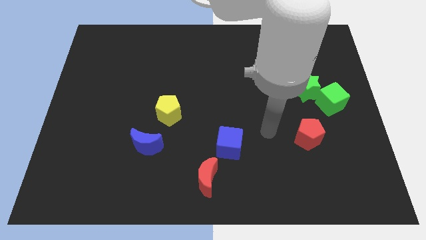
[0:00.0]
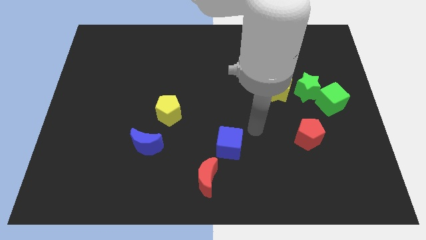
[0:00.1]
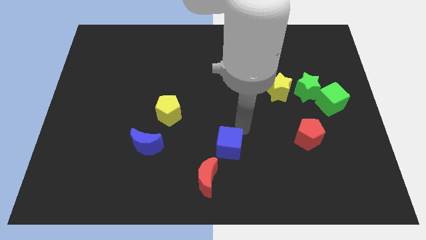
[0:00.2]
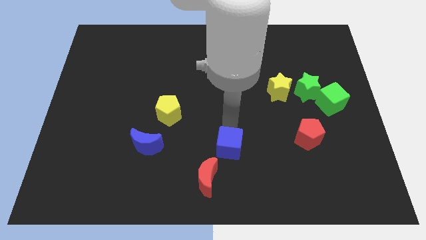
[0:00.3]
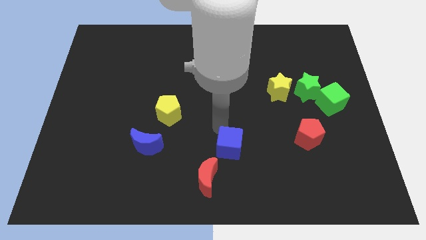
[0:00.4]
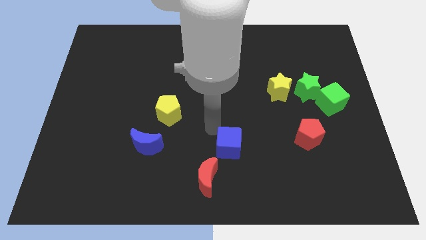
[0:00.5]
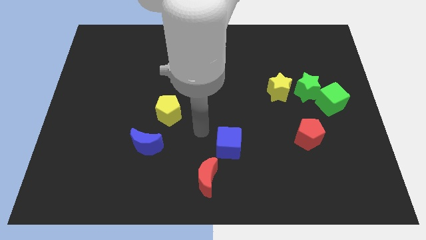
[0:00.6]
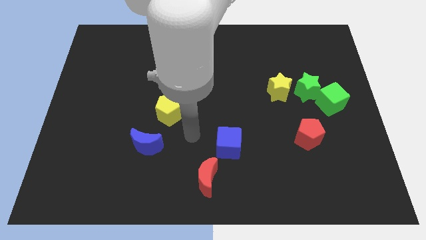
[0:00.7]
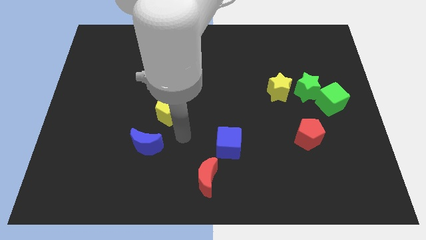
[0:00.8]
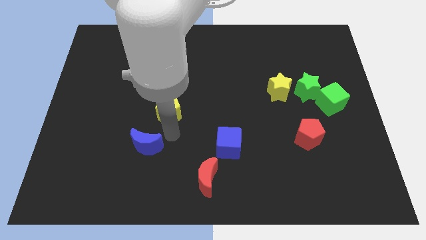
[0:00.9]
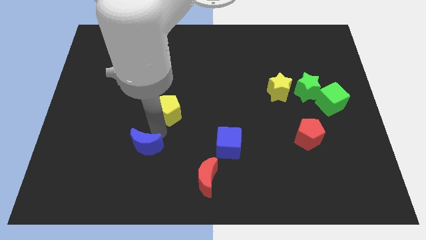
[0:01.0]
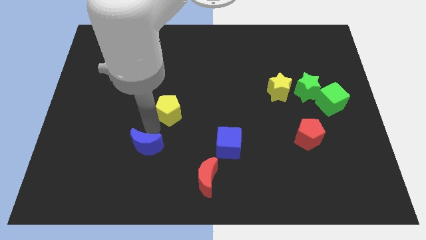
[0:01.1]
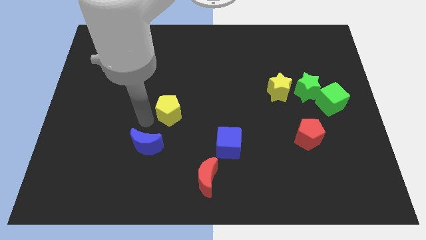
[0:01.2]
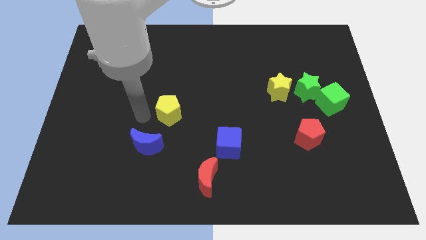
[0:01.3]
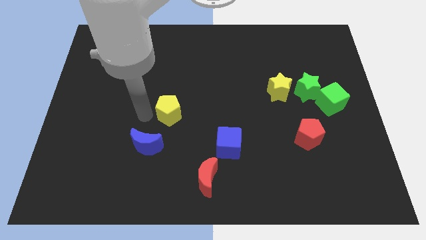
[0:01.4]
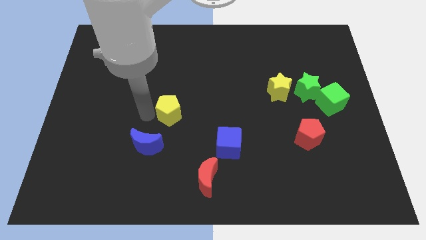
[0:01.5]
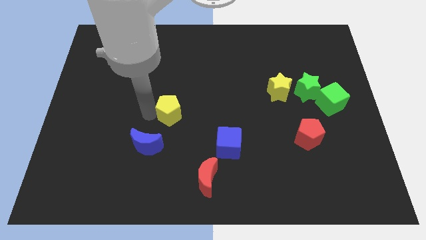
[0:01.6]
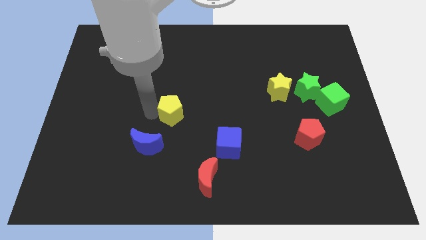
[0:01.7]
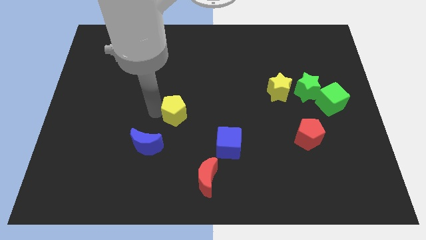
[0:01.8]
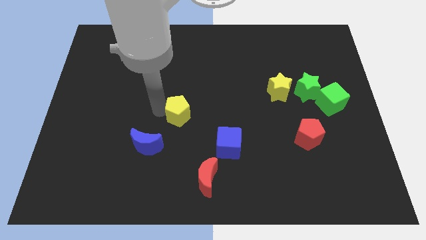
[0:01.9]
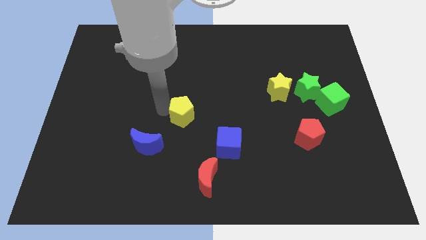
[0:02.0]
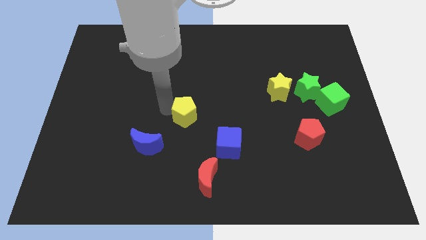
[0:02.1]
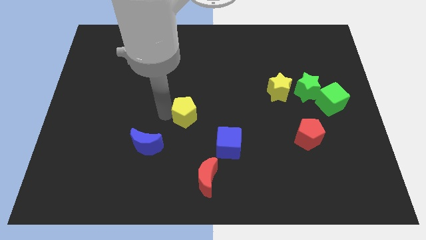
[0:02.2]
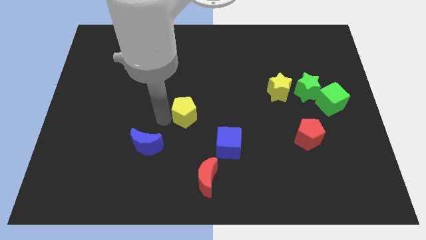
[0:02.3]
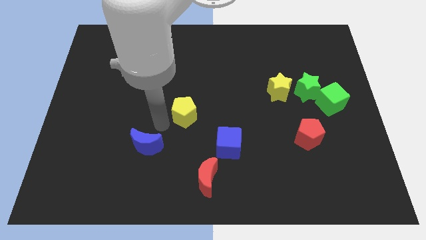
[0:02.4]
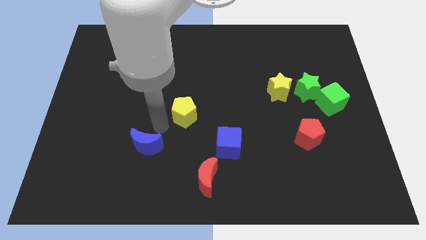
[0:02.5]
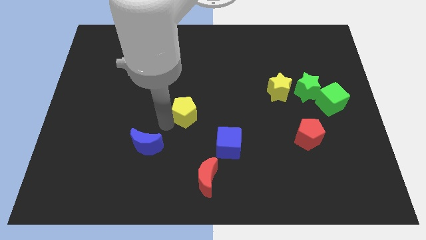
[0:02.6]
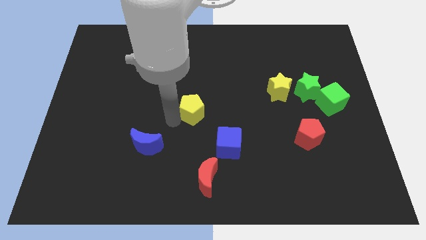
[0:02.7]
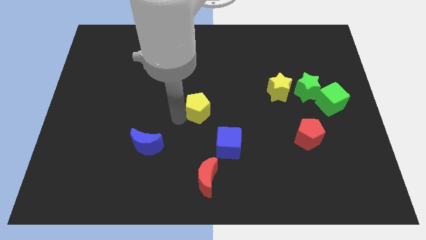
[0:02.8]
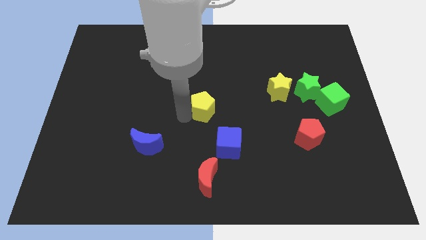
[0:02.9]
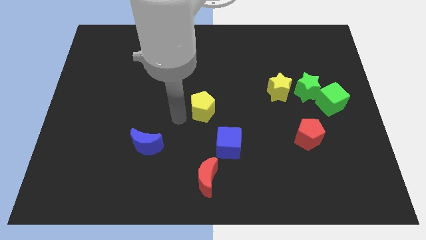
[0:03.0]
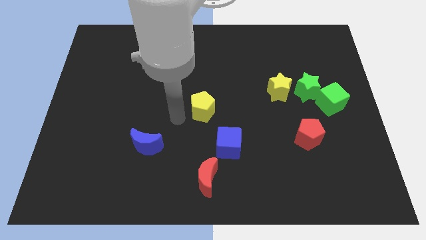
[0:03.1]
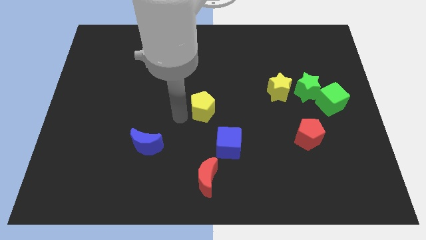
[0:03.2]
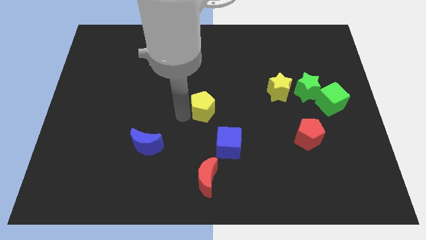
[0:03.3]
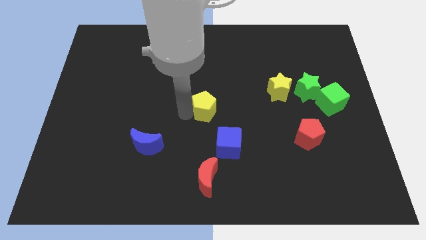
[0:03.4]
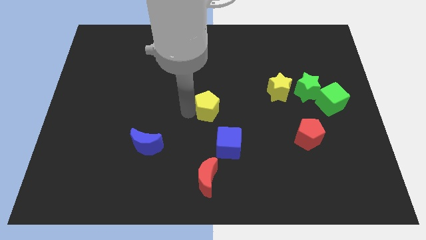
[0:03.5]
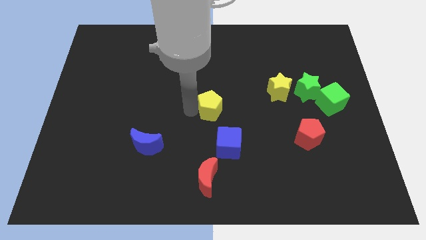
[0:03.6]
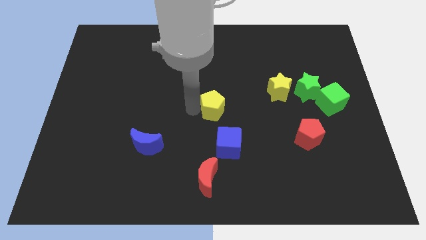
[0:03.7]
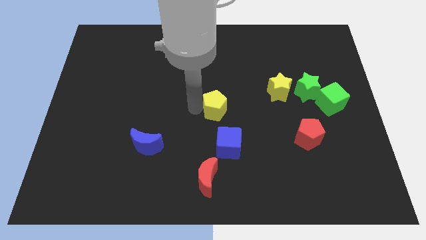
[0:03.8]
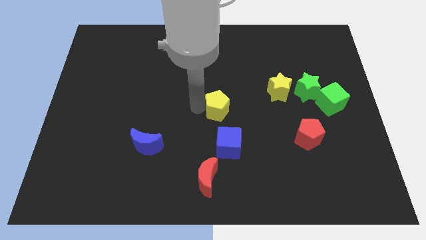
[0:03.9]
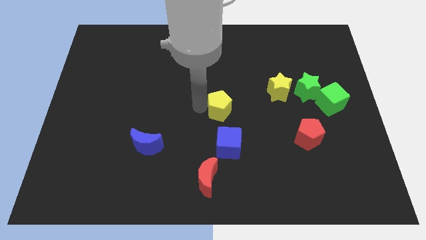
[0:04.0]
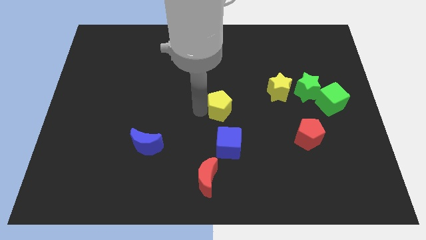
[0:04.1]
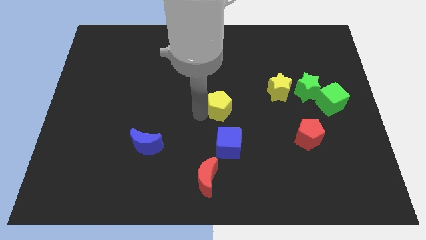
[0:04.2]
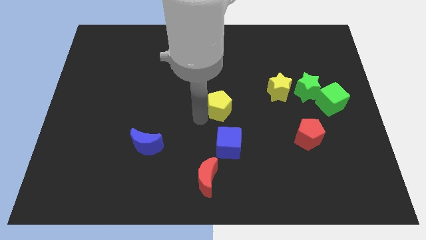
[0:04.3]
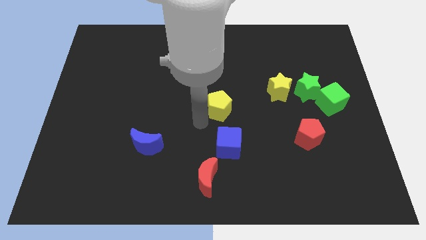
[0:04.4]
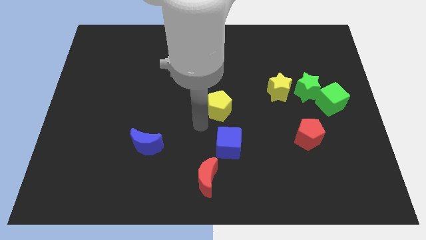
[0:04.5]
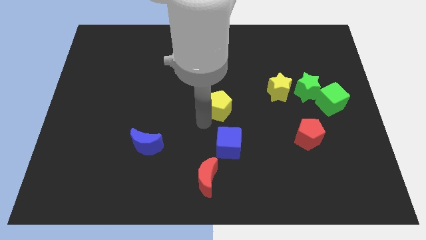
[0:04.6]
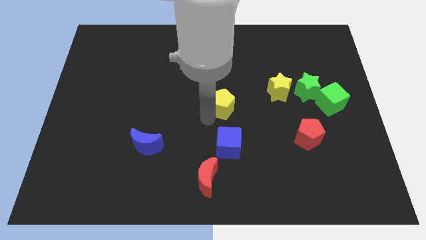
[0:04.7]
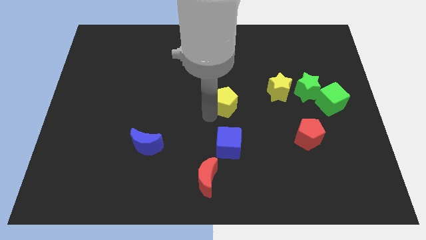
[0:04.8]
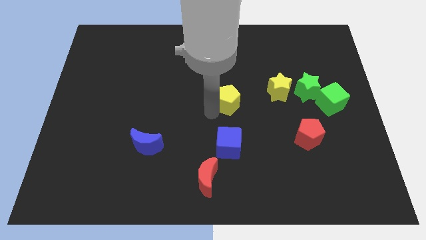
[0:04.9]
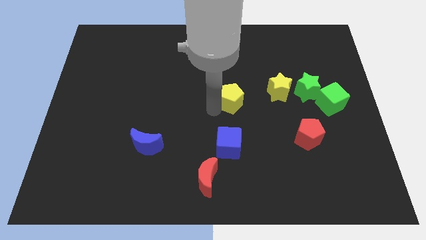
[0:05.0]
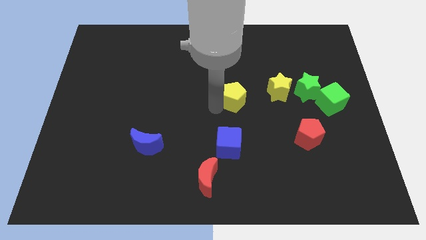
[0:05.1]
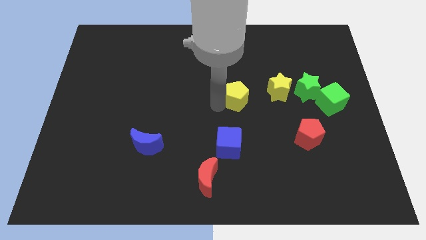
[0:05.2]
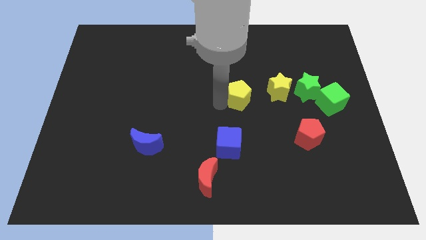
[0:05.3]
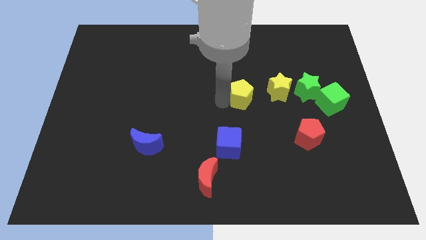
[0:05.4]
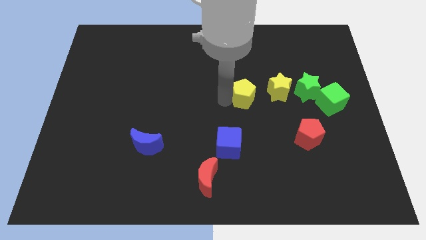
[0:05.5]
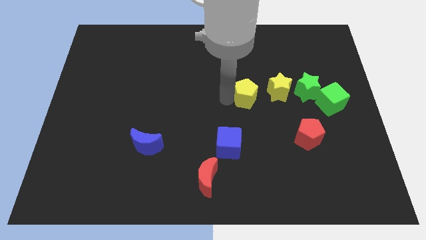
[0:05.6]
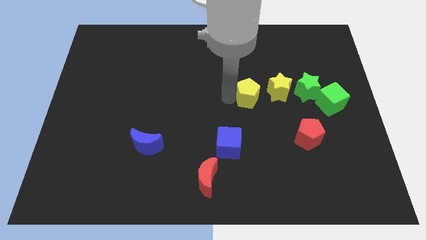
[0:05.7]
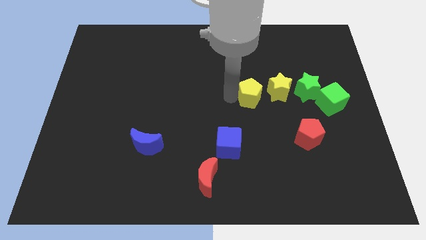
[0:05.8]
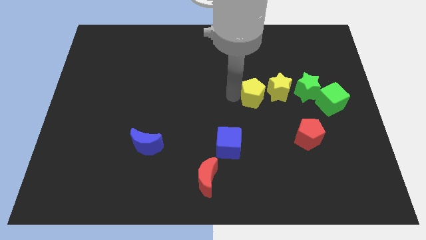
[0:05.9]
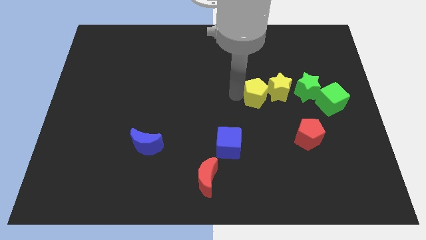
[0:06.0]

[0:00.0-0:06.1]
move the yellow pentagon towards the yellow star

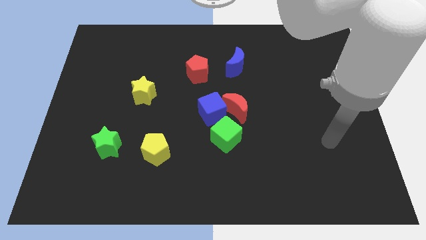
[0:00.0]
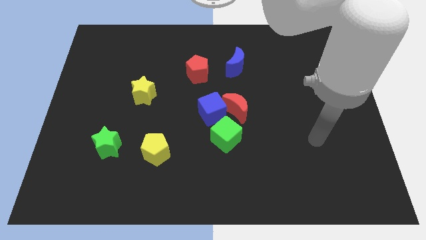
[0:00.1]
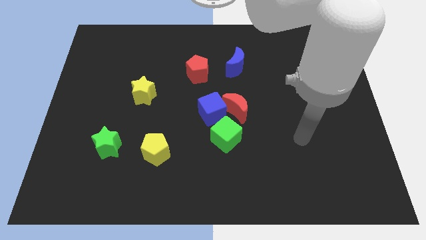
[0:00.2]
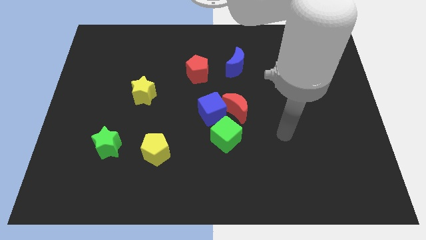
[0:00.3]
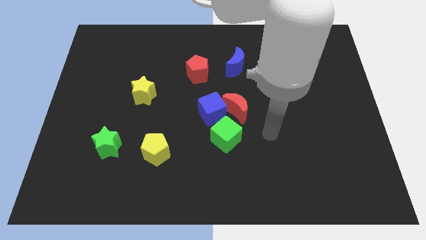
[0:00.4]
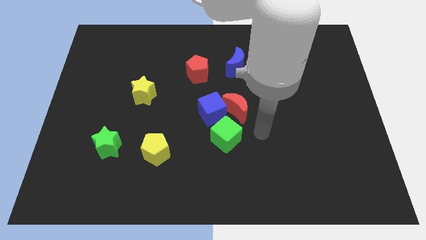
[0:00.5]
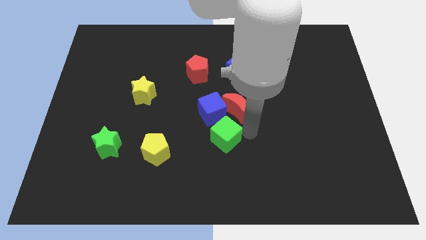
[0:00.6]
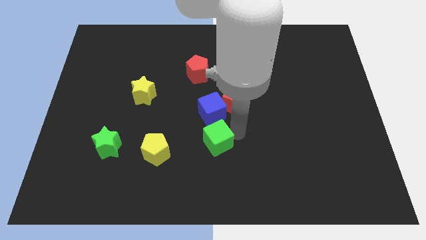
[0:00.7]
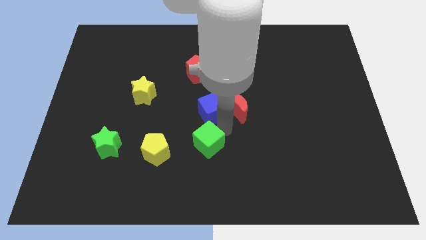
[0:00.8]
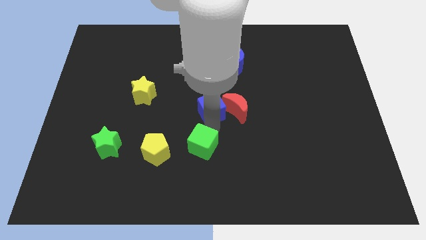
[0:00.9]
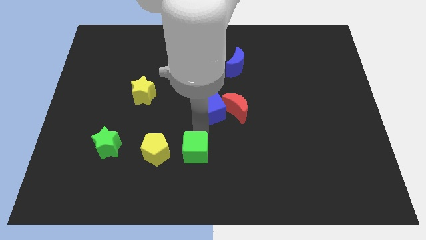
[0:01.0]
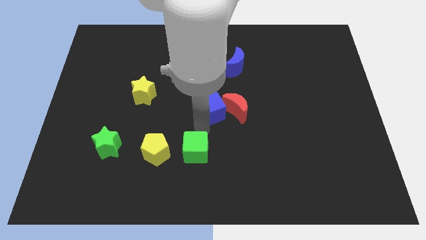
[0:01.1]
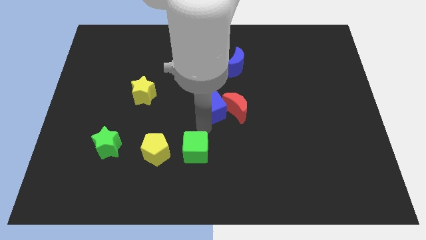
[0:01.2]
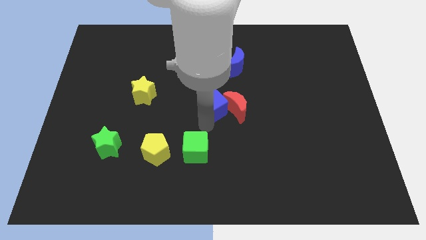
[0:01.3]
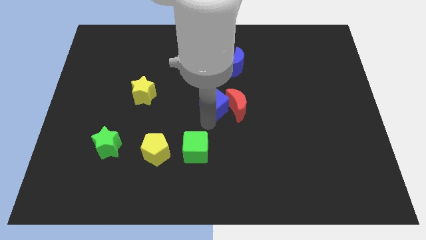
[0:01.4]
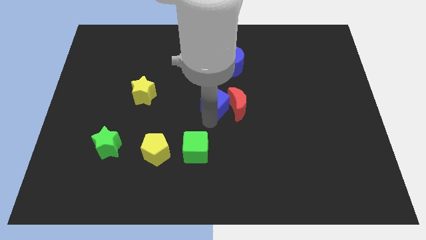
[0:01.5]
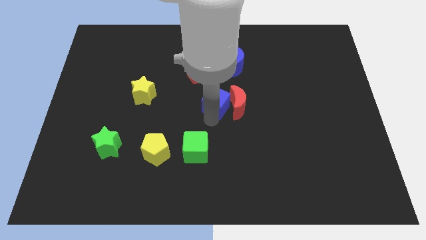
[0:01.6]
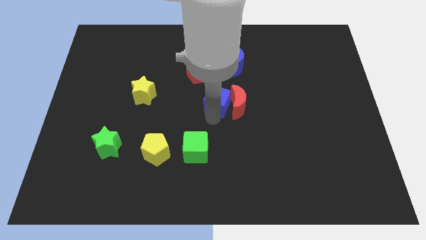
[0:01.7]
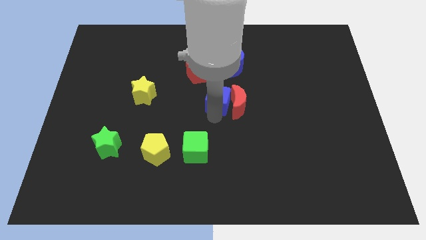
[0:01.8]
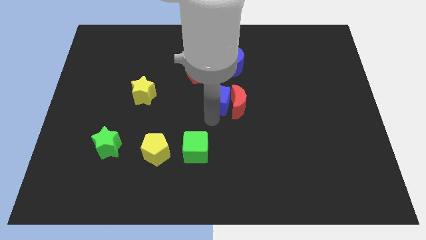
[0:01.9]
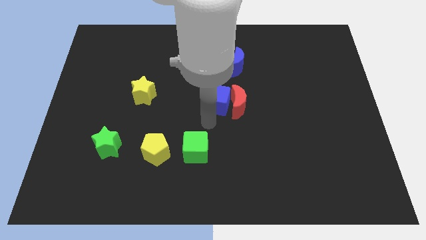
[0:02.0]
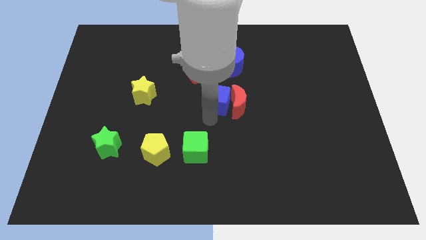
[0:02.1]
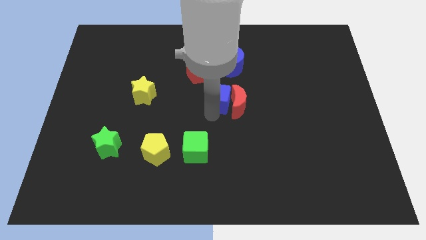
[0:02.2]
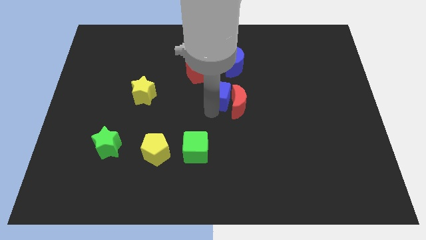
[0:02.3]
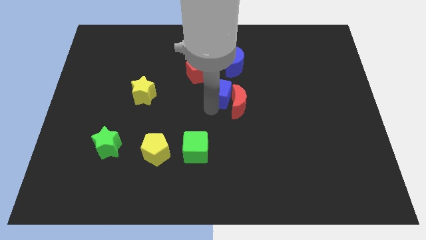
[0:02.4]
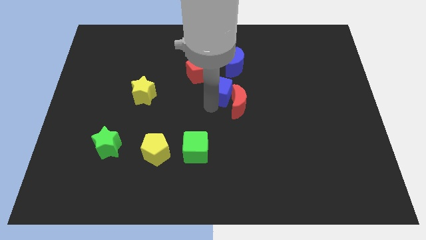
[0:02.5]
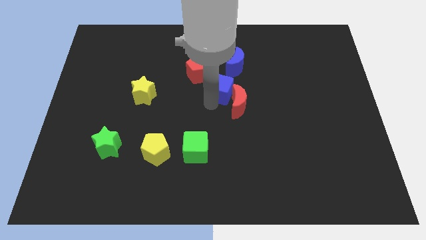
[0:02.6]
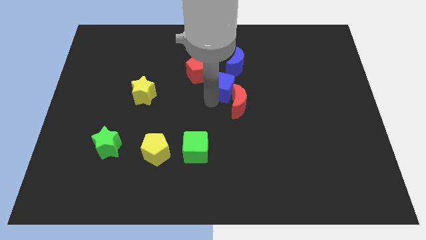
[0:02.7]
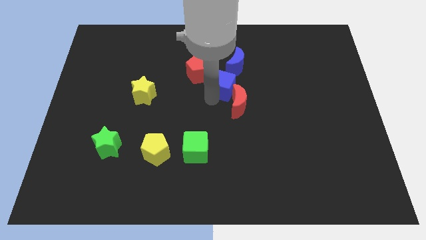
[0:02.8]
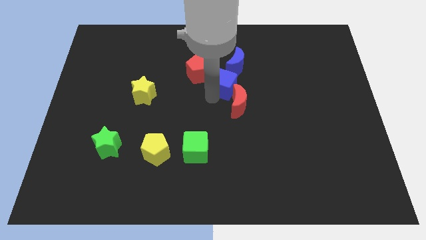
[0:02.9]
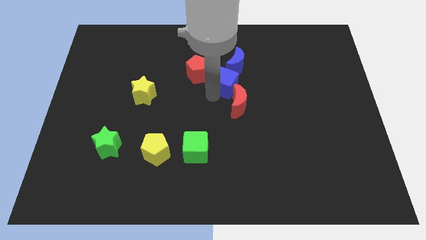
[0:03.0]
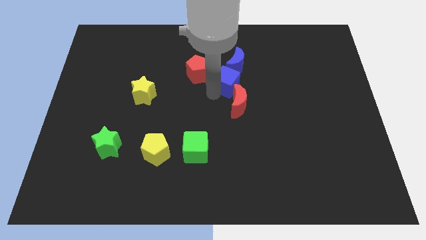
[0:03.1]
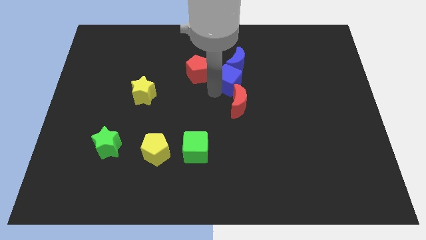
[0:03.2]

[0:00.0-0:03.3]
put the blue cube close to the blue moon
